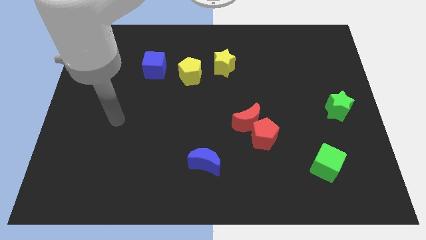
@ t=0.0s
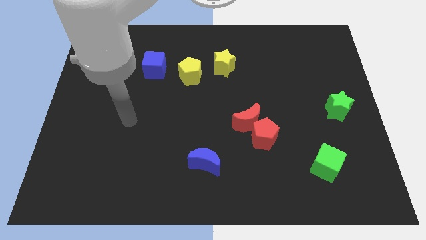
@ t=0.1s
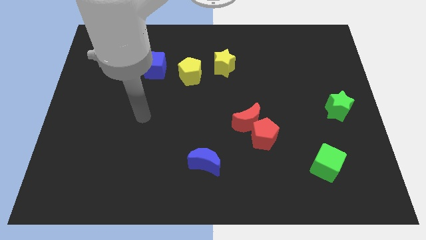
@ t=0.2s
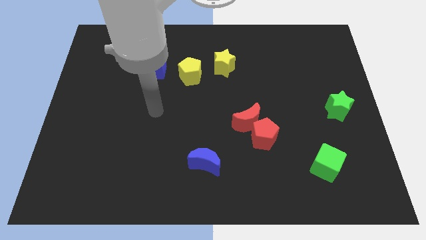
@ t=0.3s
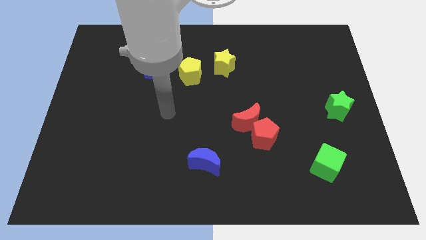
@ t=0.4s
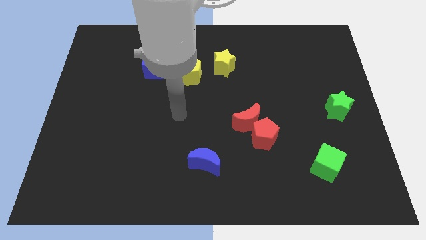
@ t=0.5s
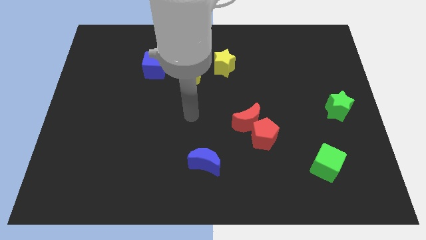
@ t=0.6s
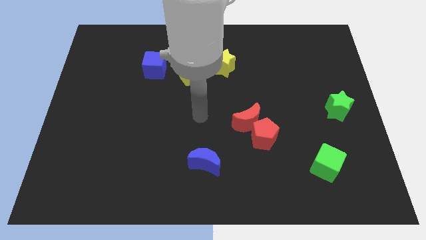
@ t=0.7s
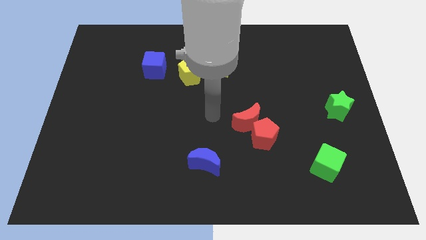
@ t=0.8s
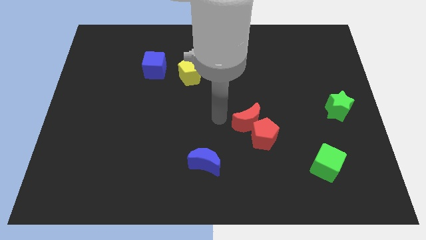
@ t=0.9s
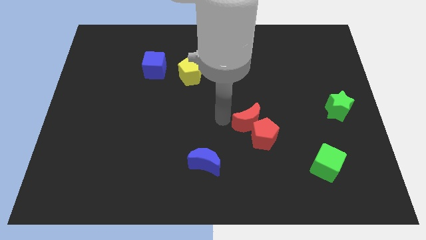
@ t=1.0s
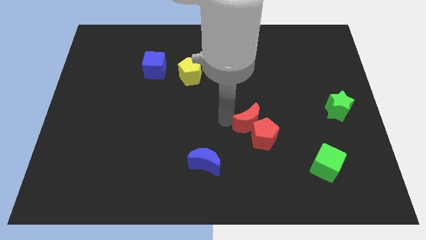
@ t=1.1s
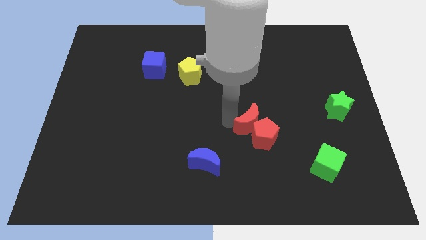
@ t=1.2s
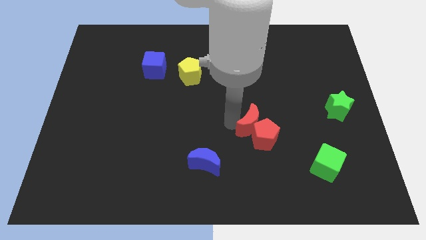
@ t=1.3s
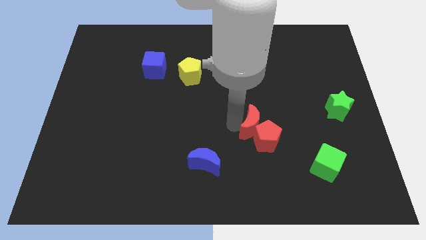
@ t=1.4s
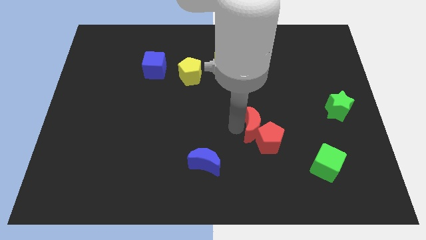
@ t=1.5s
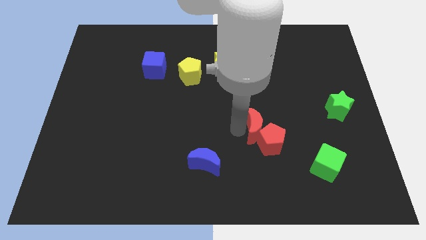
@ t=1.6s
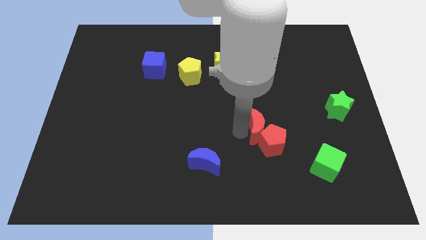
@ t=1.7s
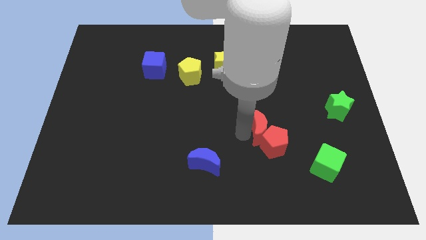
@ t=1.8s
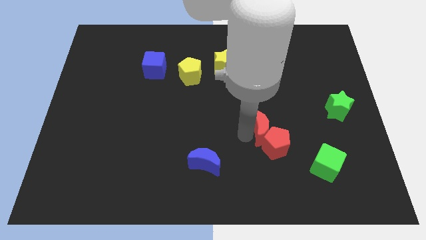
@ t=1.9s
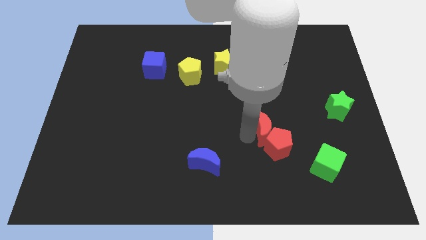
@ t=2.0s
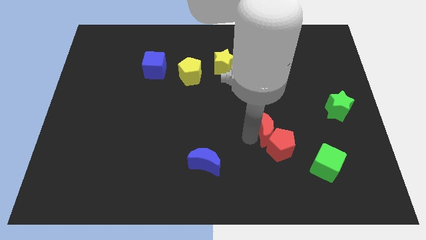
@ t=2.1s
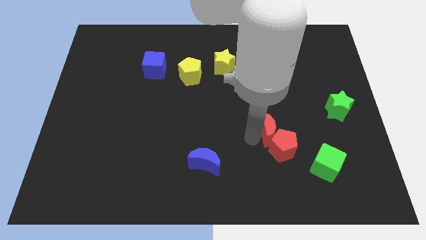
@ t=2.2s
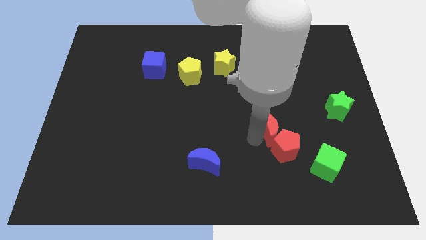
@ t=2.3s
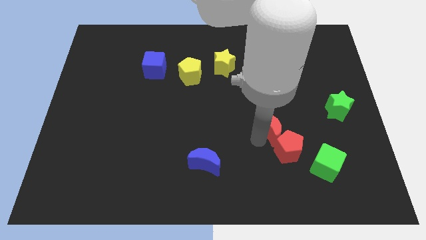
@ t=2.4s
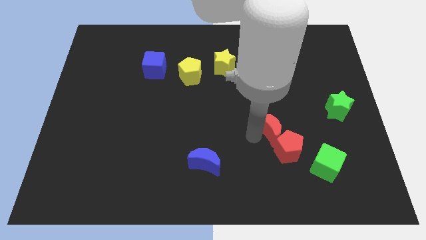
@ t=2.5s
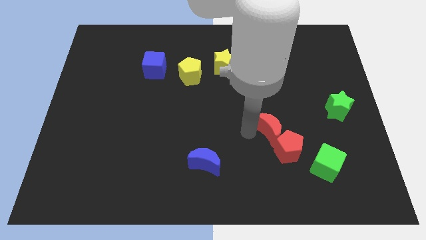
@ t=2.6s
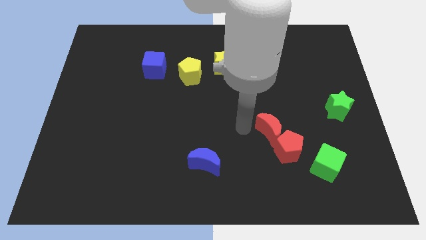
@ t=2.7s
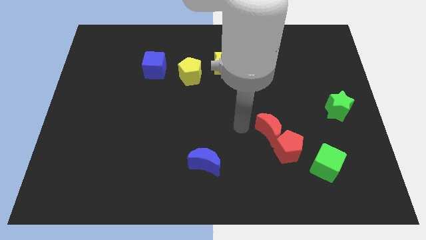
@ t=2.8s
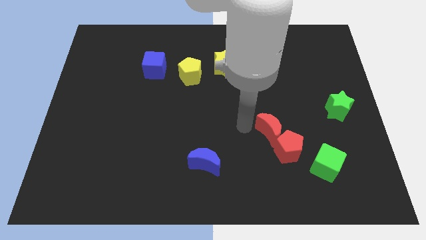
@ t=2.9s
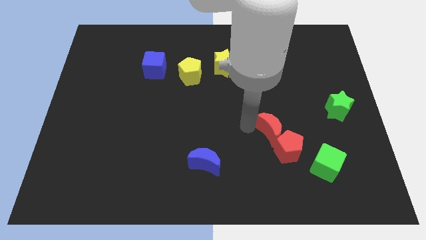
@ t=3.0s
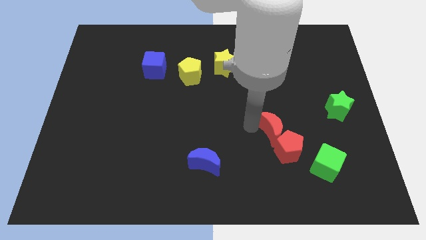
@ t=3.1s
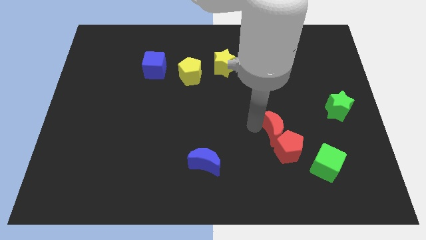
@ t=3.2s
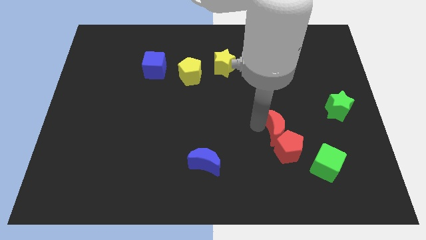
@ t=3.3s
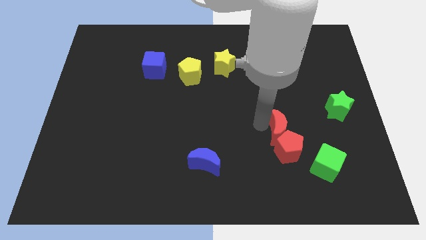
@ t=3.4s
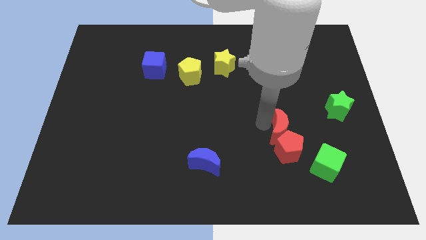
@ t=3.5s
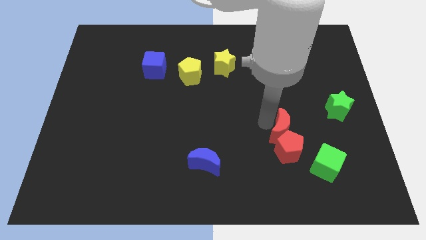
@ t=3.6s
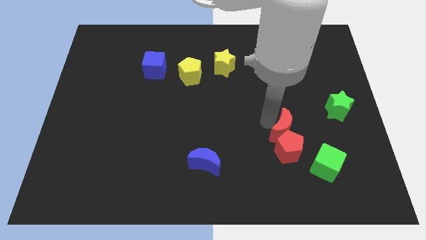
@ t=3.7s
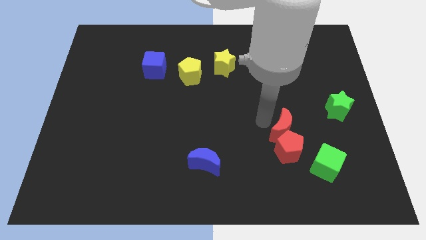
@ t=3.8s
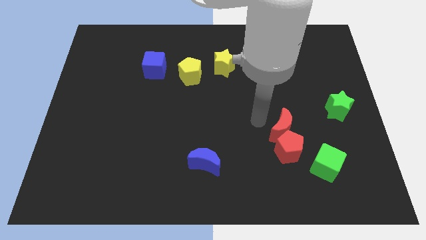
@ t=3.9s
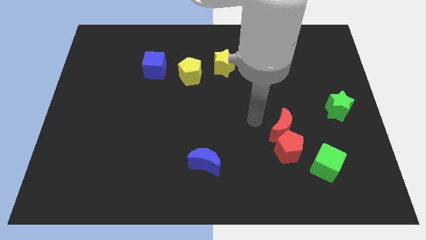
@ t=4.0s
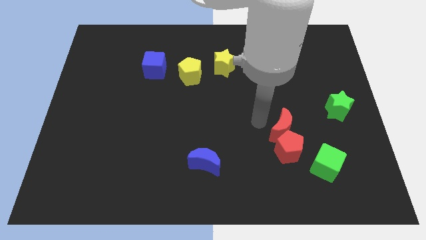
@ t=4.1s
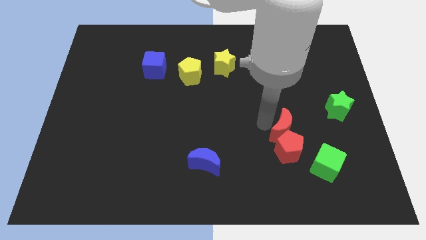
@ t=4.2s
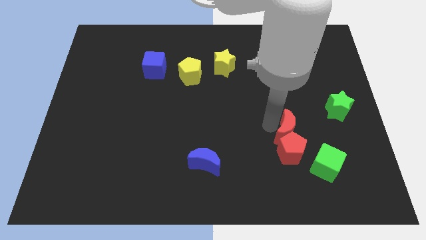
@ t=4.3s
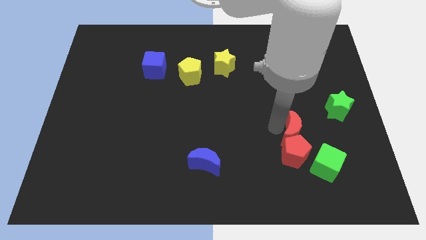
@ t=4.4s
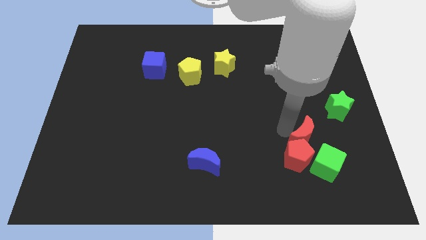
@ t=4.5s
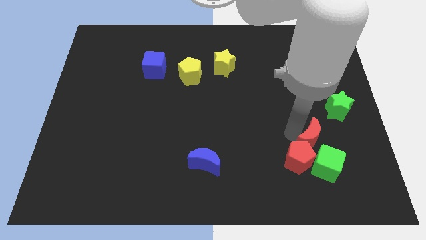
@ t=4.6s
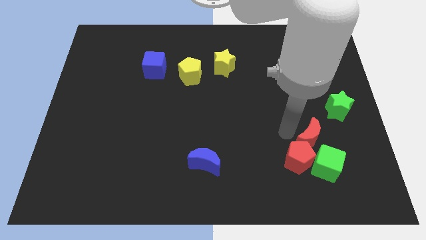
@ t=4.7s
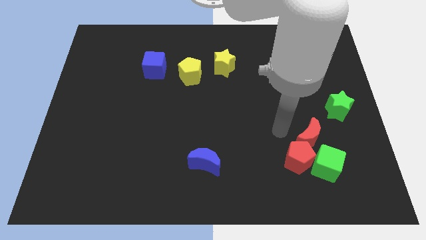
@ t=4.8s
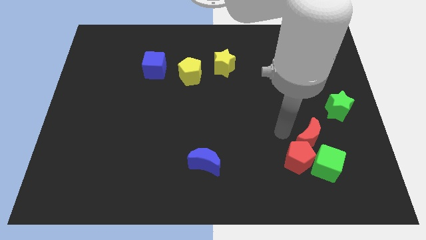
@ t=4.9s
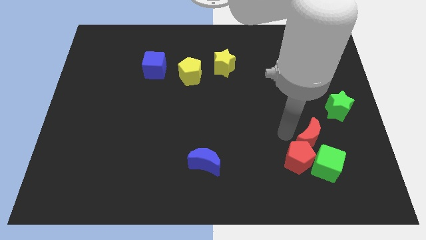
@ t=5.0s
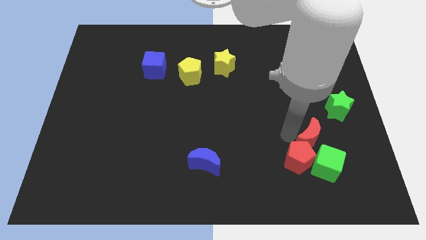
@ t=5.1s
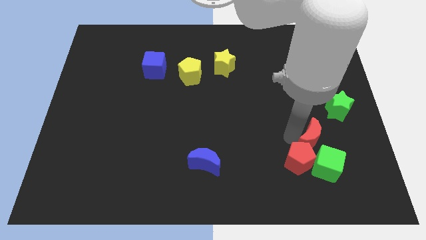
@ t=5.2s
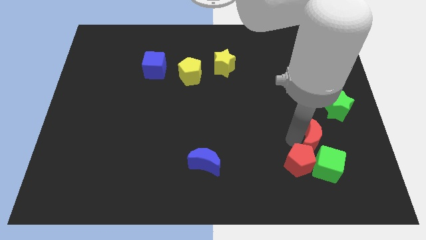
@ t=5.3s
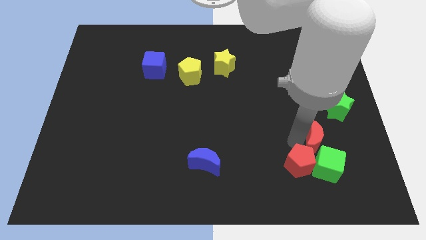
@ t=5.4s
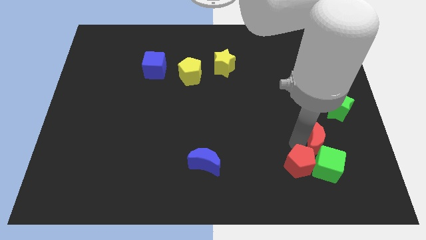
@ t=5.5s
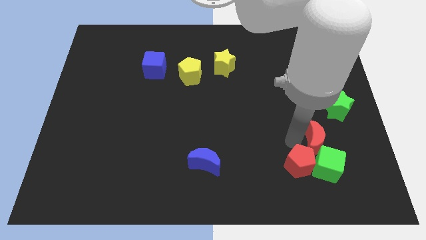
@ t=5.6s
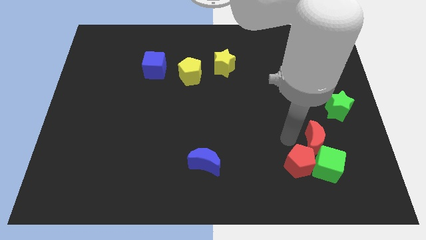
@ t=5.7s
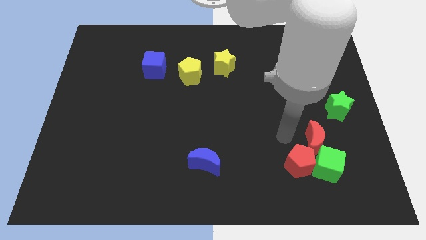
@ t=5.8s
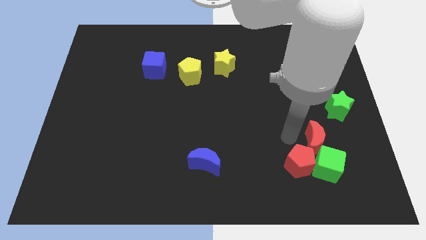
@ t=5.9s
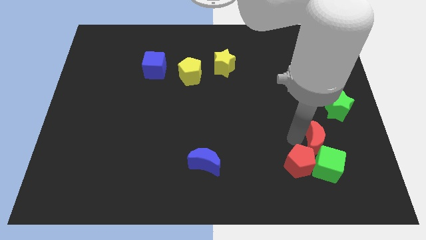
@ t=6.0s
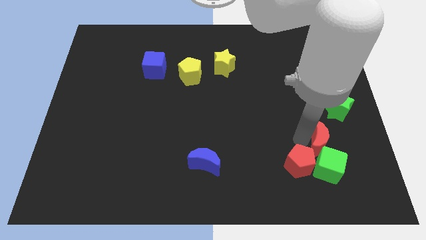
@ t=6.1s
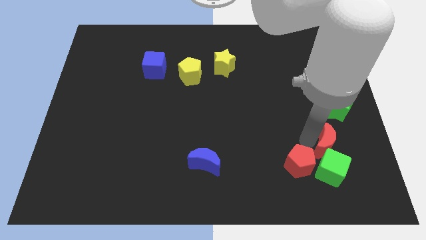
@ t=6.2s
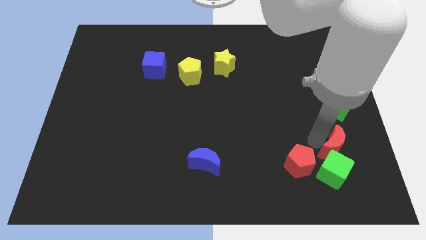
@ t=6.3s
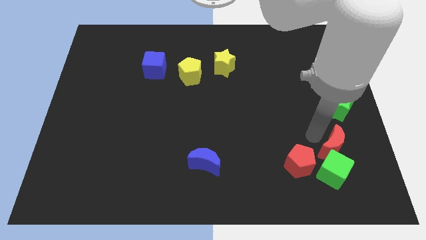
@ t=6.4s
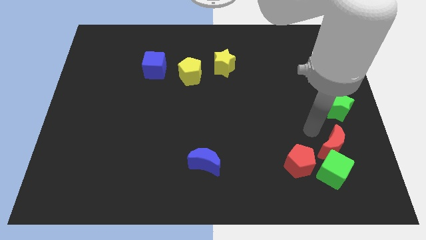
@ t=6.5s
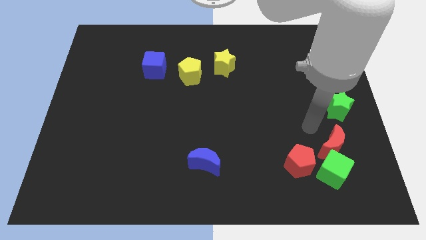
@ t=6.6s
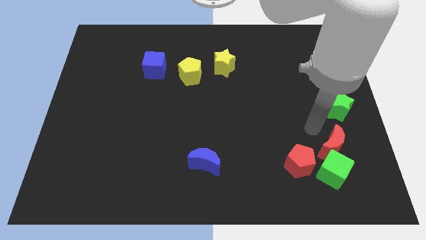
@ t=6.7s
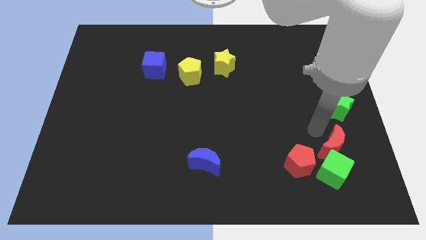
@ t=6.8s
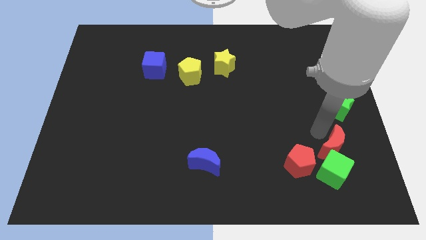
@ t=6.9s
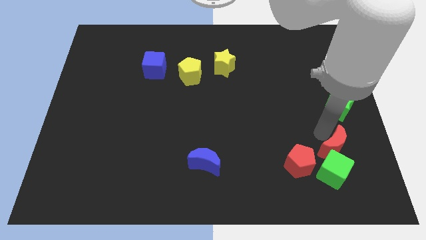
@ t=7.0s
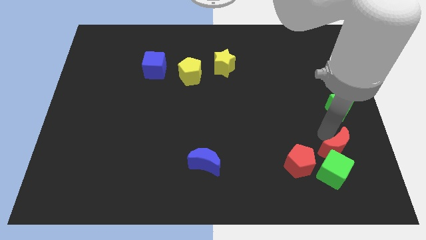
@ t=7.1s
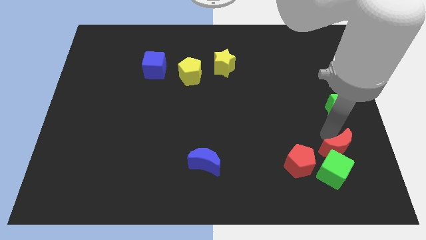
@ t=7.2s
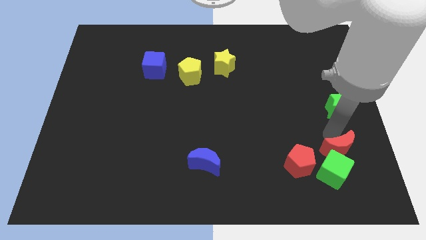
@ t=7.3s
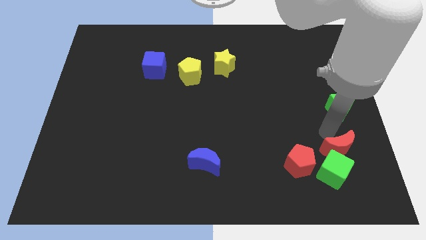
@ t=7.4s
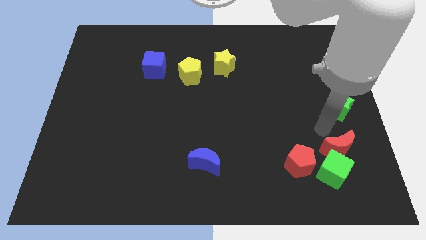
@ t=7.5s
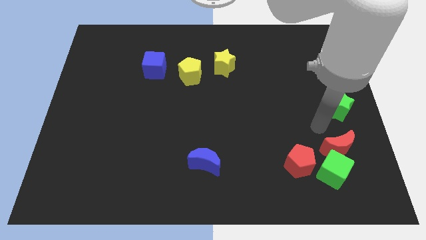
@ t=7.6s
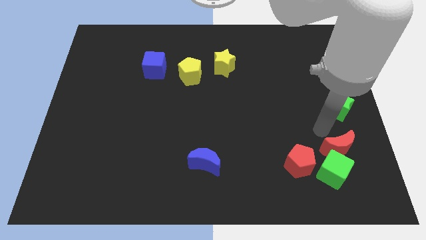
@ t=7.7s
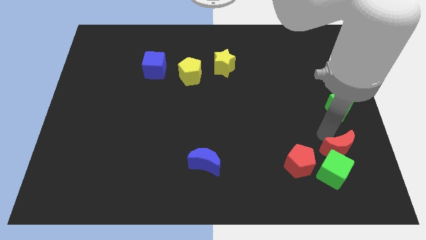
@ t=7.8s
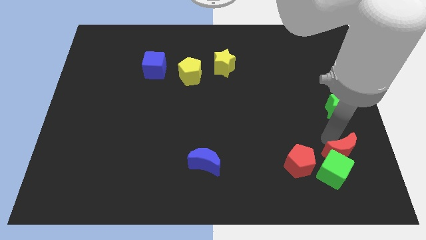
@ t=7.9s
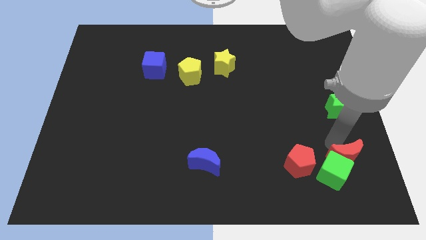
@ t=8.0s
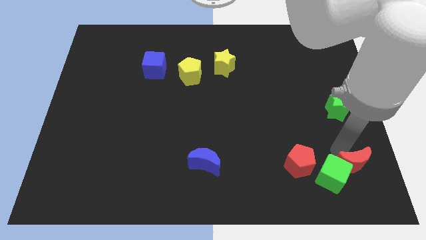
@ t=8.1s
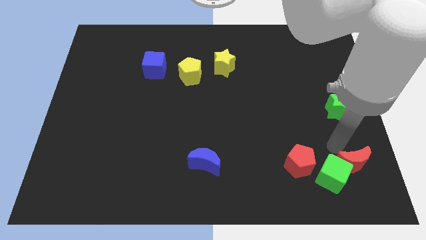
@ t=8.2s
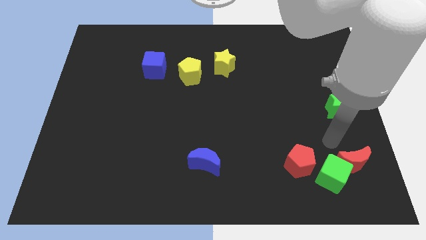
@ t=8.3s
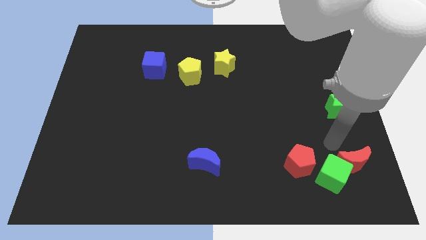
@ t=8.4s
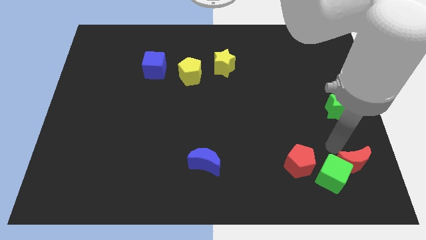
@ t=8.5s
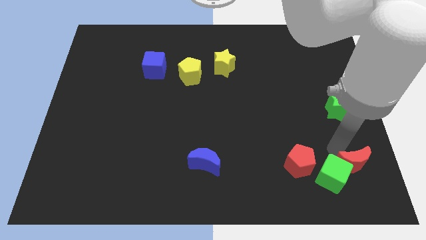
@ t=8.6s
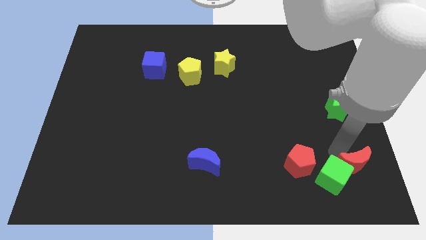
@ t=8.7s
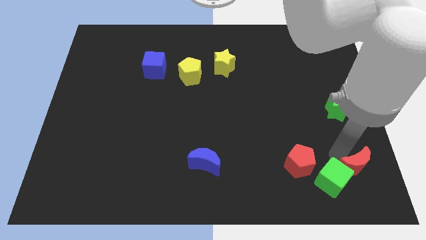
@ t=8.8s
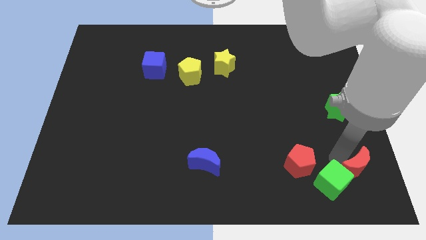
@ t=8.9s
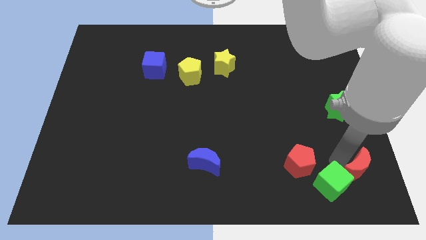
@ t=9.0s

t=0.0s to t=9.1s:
put the red moon to the bottom right
